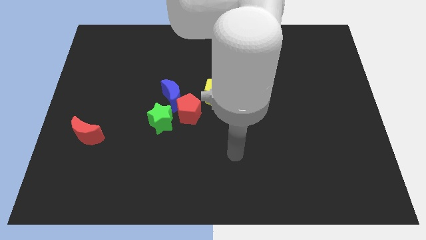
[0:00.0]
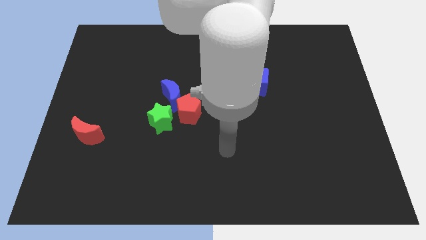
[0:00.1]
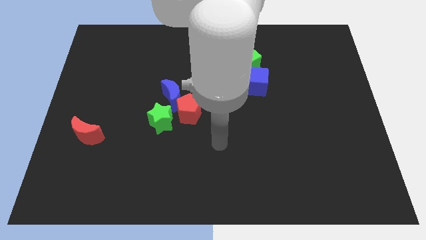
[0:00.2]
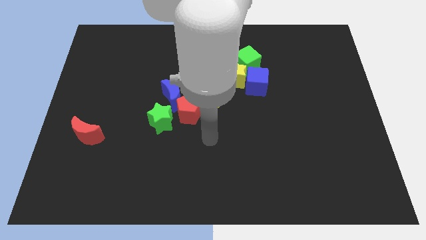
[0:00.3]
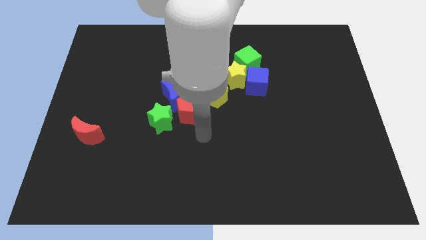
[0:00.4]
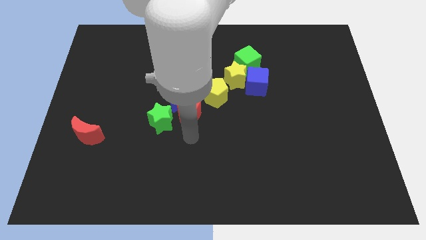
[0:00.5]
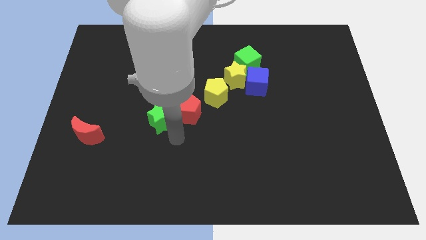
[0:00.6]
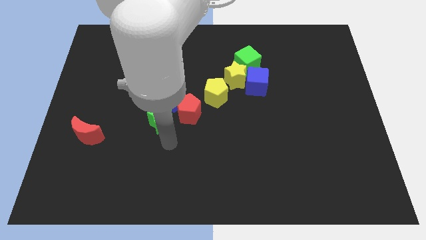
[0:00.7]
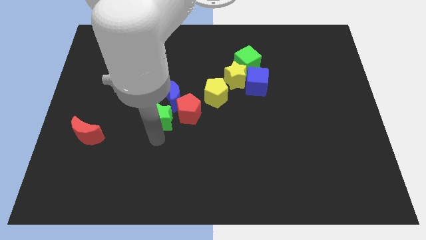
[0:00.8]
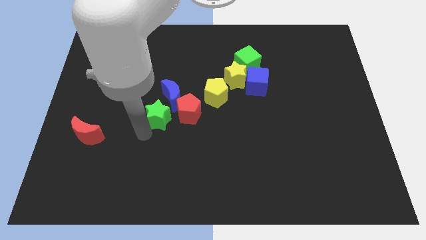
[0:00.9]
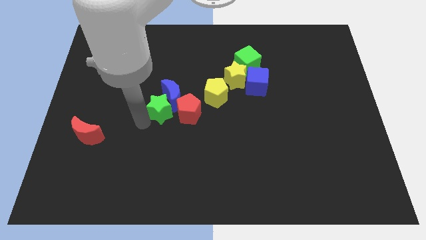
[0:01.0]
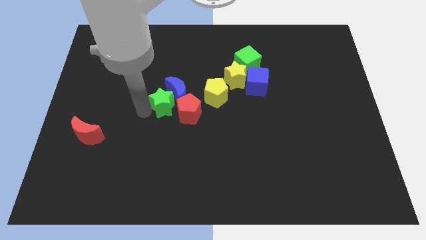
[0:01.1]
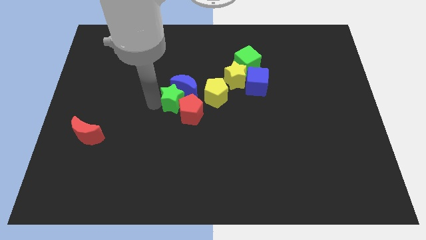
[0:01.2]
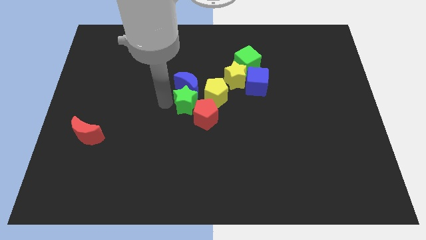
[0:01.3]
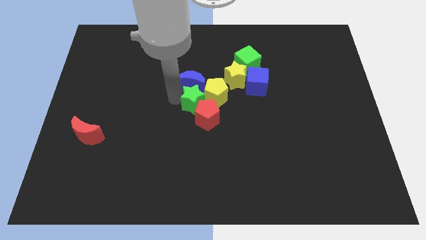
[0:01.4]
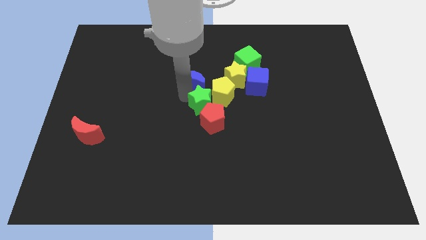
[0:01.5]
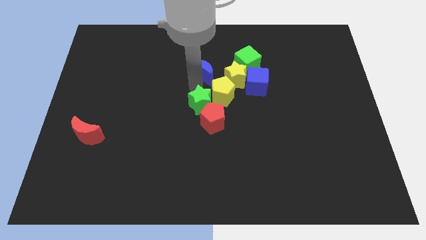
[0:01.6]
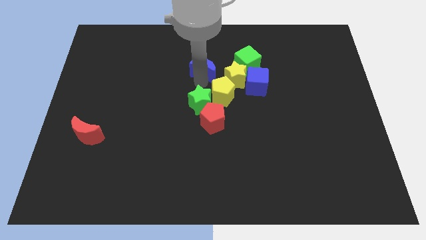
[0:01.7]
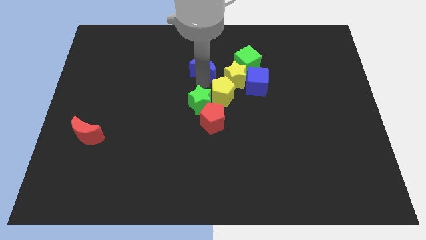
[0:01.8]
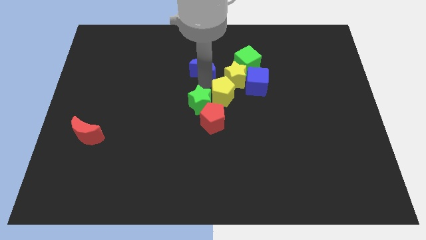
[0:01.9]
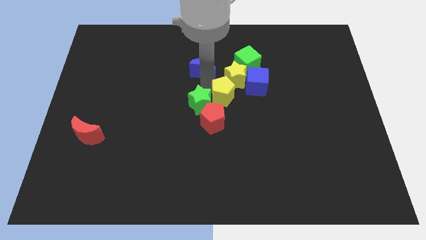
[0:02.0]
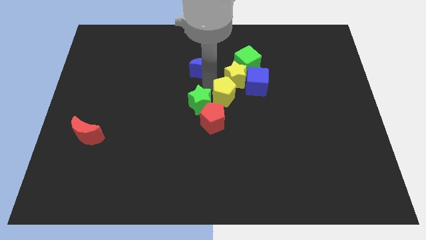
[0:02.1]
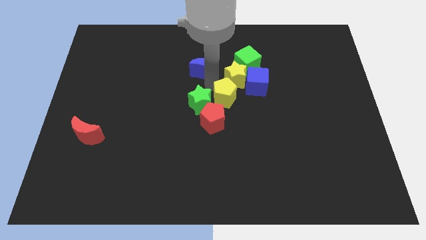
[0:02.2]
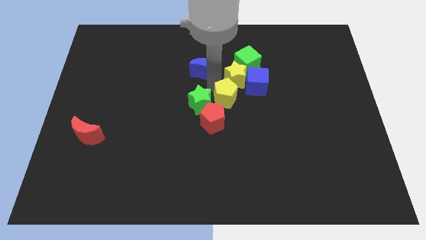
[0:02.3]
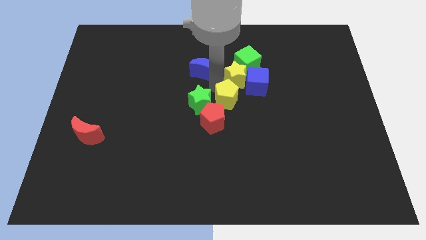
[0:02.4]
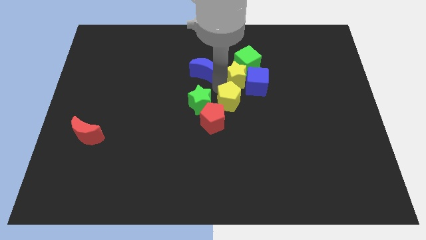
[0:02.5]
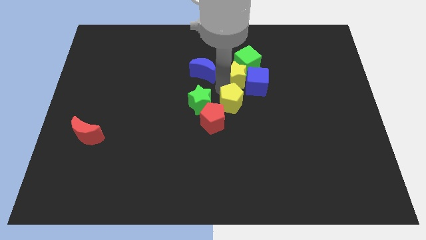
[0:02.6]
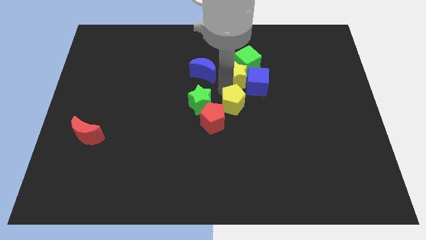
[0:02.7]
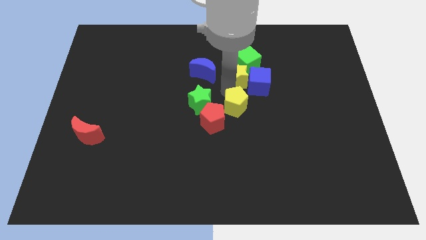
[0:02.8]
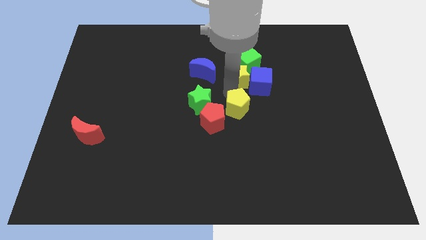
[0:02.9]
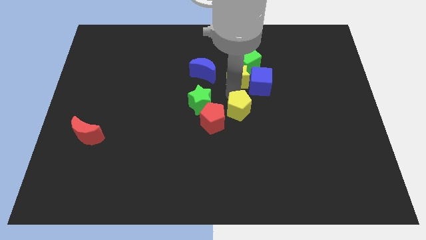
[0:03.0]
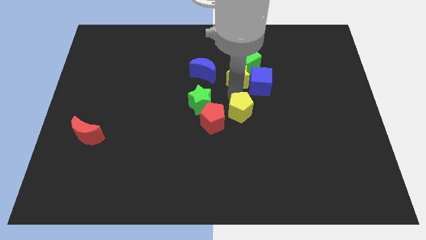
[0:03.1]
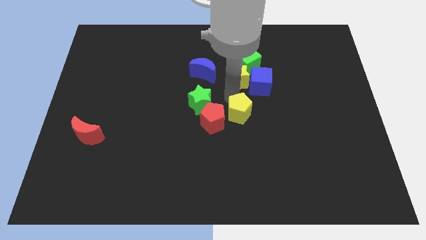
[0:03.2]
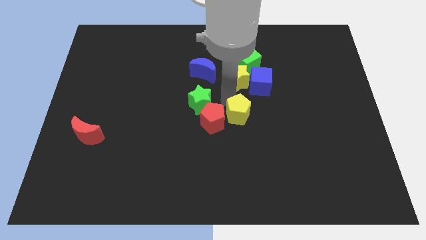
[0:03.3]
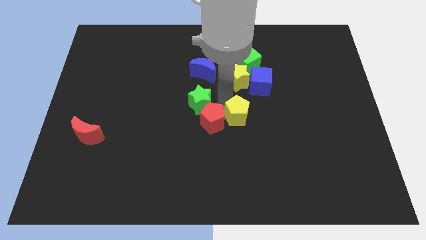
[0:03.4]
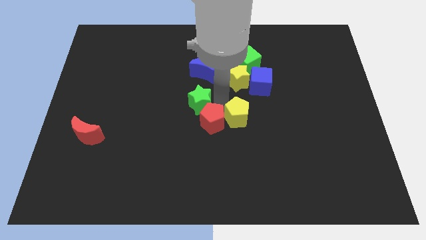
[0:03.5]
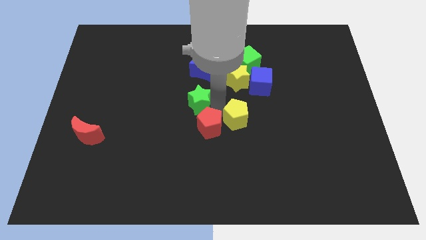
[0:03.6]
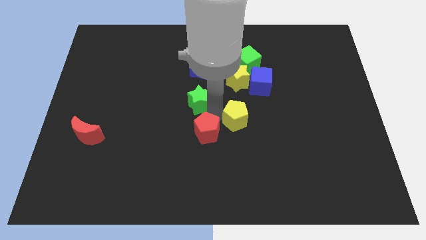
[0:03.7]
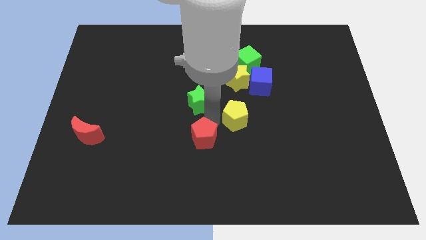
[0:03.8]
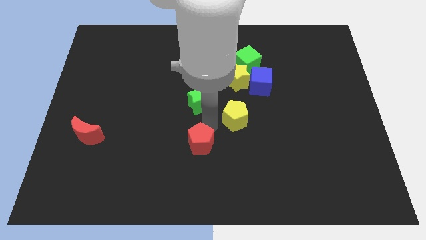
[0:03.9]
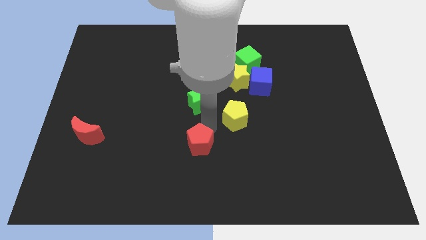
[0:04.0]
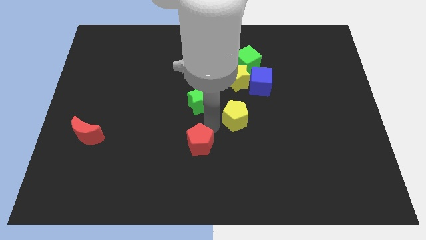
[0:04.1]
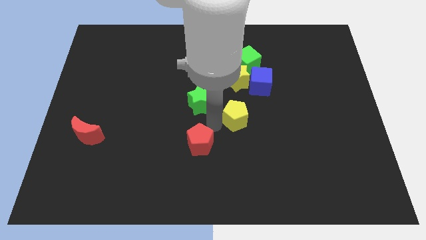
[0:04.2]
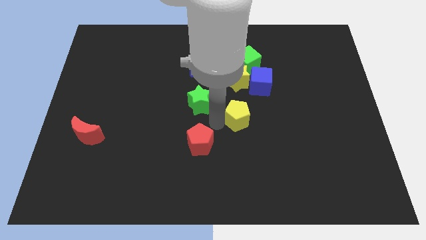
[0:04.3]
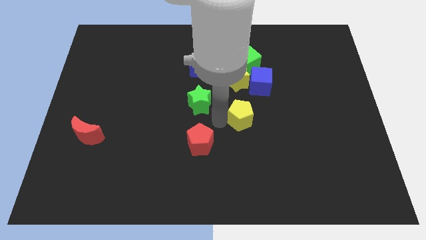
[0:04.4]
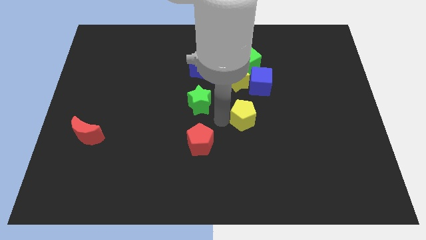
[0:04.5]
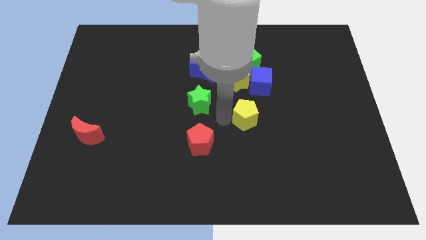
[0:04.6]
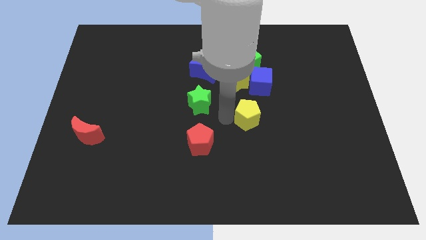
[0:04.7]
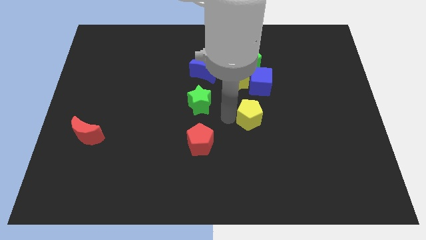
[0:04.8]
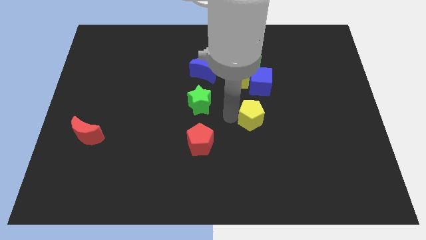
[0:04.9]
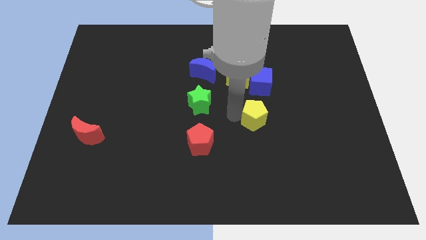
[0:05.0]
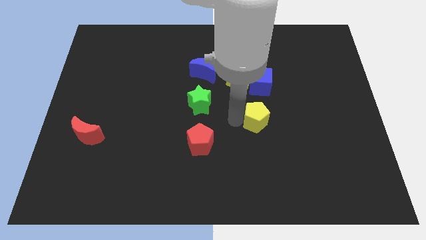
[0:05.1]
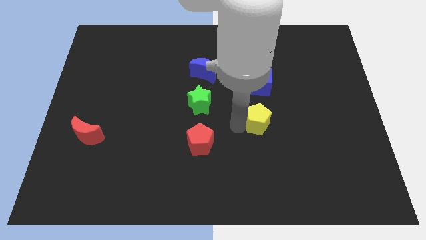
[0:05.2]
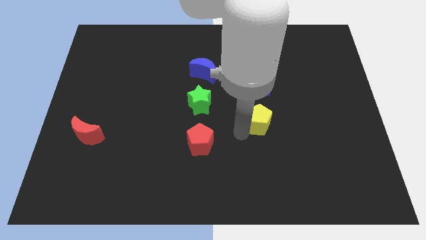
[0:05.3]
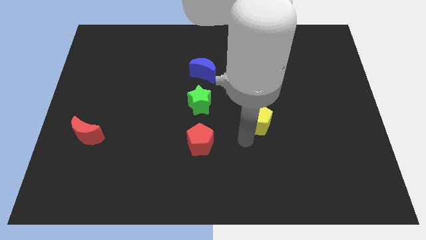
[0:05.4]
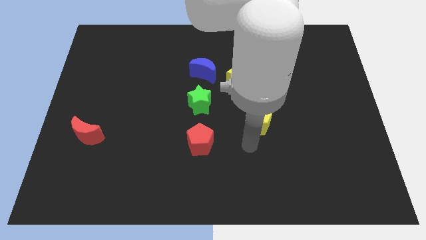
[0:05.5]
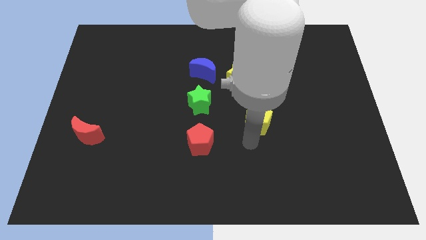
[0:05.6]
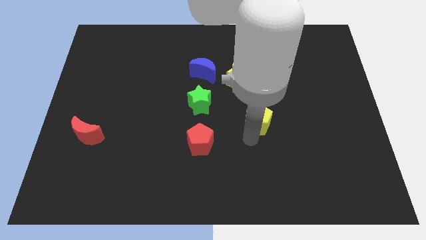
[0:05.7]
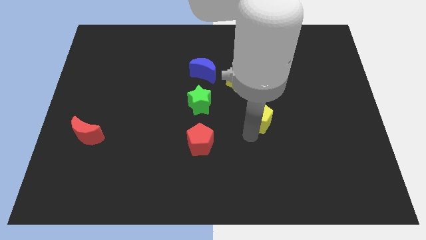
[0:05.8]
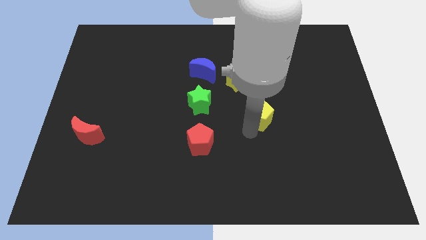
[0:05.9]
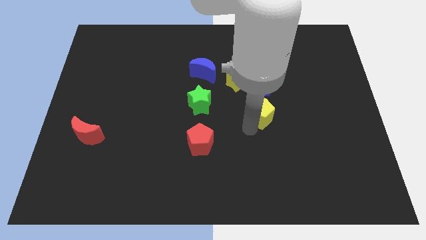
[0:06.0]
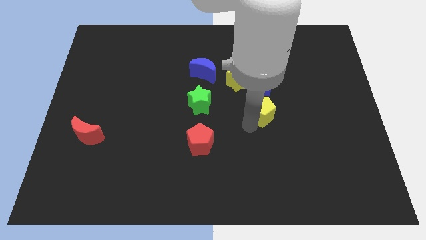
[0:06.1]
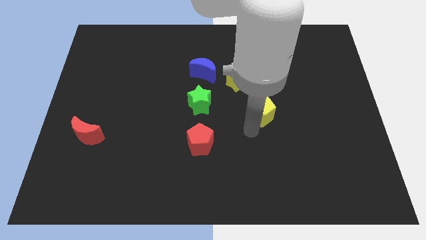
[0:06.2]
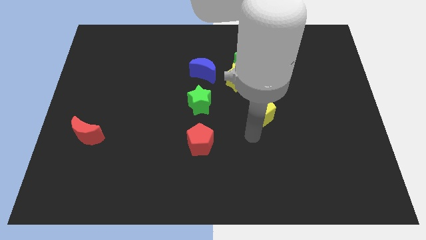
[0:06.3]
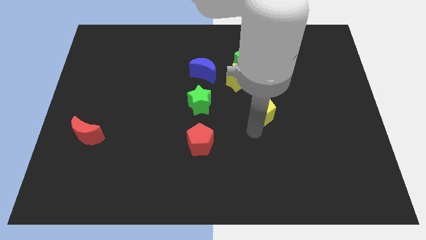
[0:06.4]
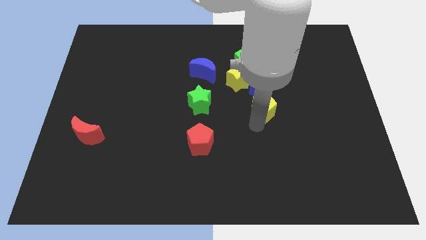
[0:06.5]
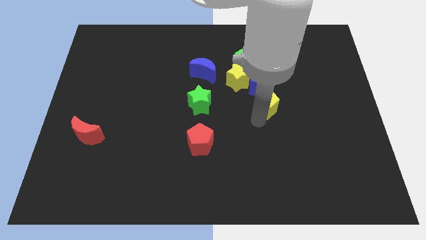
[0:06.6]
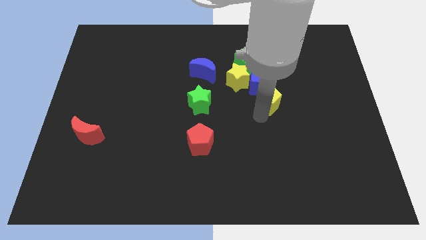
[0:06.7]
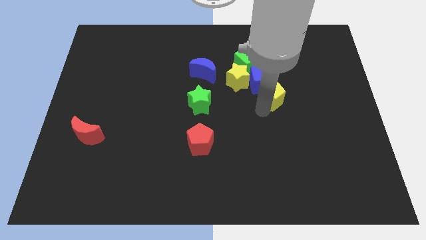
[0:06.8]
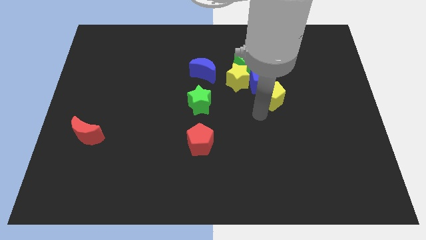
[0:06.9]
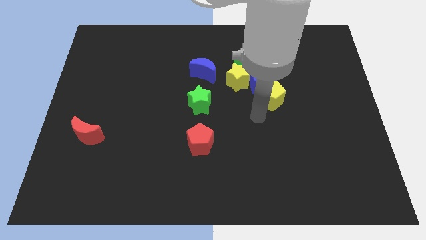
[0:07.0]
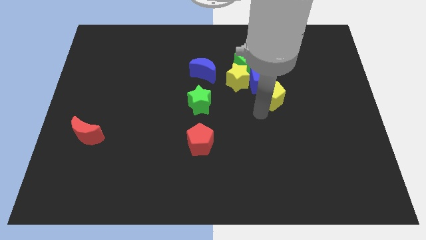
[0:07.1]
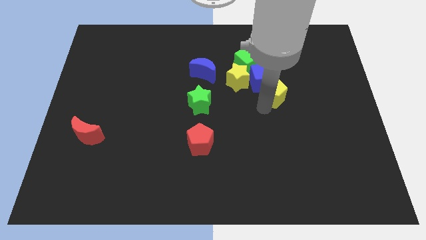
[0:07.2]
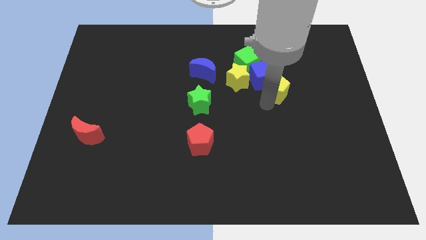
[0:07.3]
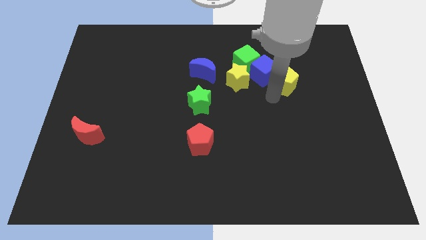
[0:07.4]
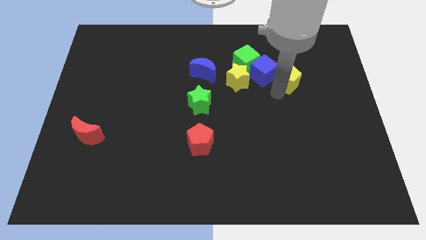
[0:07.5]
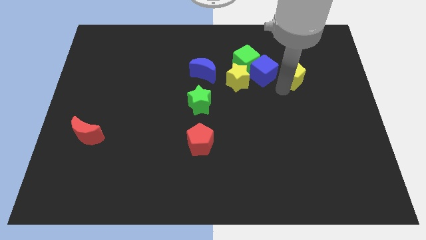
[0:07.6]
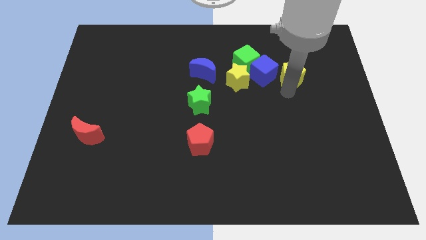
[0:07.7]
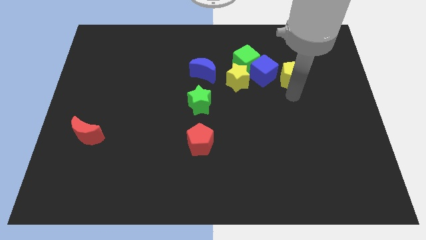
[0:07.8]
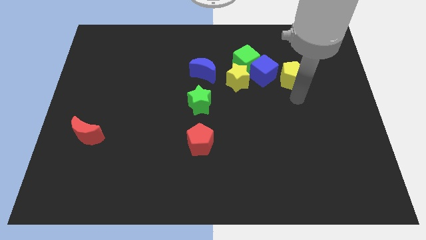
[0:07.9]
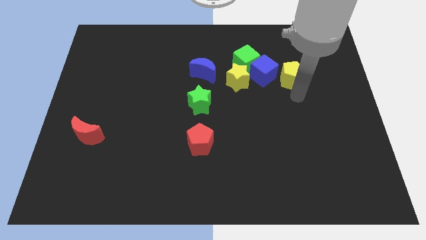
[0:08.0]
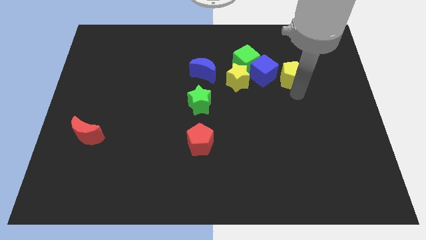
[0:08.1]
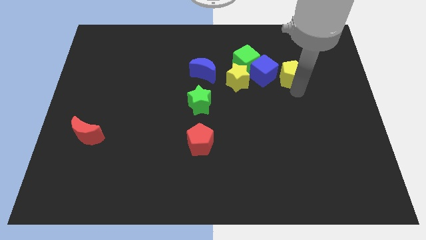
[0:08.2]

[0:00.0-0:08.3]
slide the yellow pentagon to the right of the green cube
